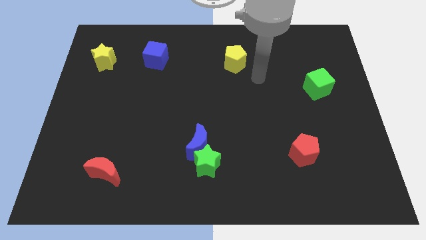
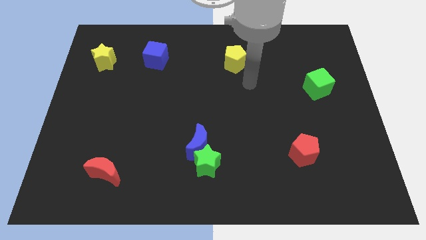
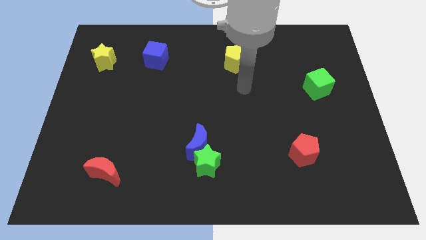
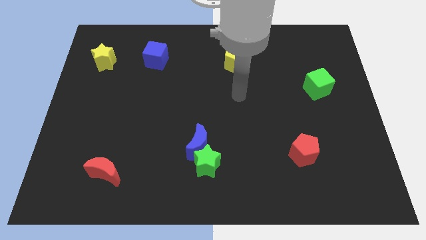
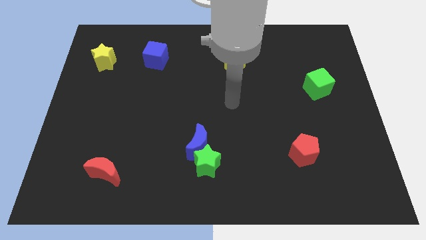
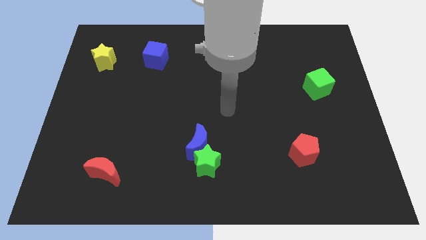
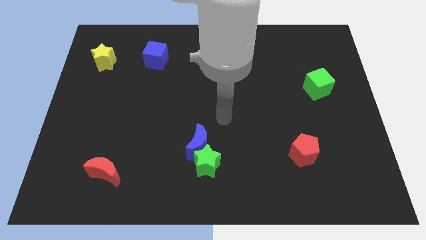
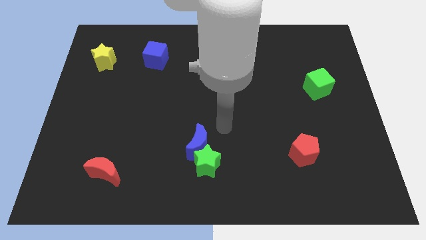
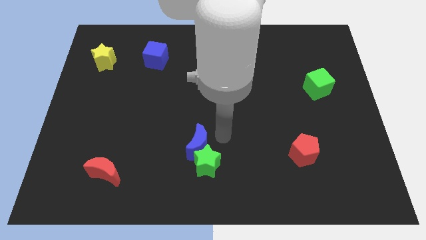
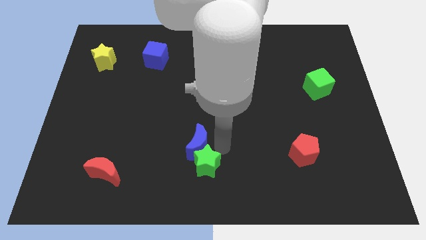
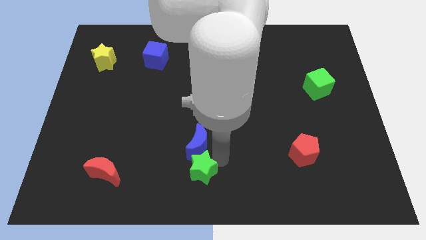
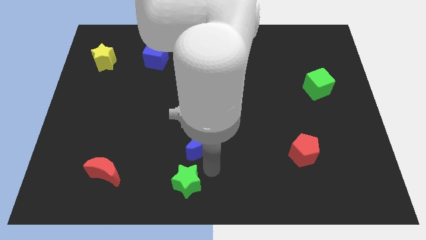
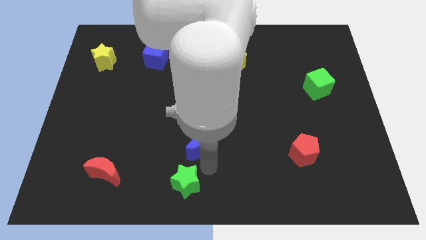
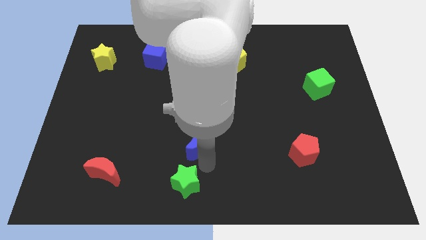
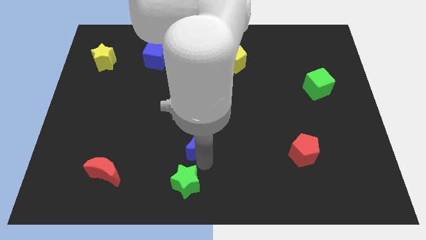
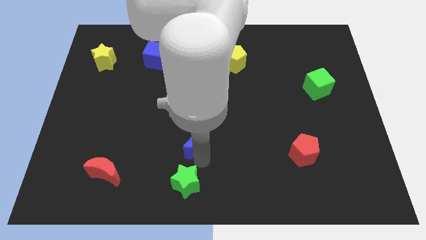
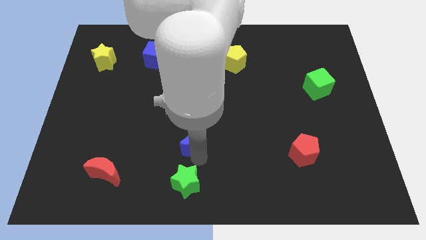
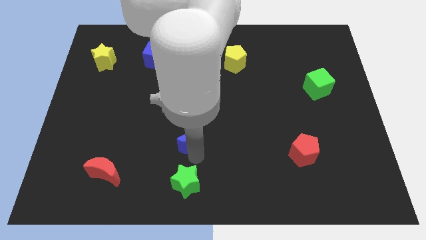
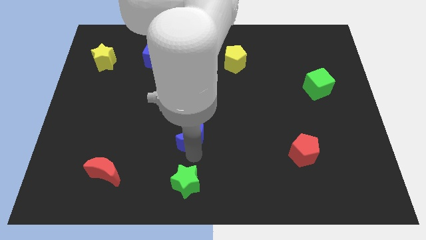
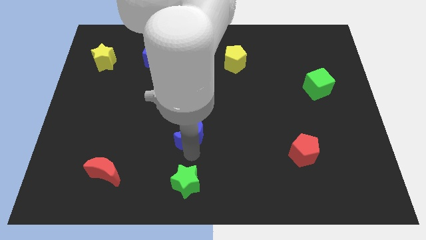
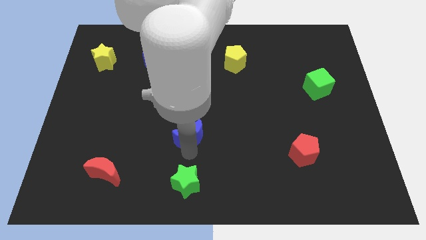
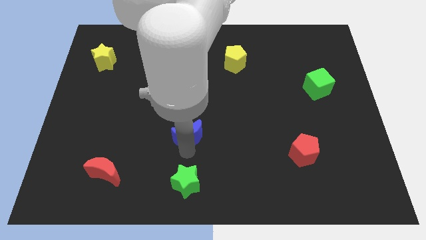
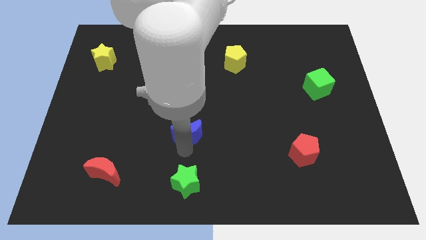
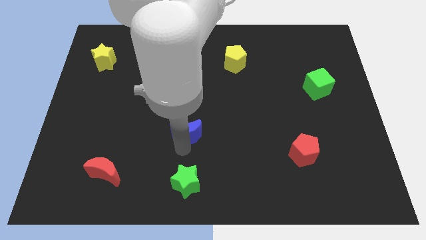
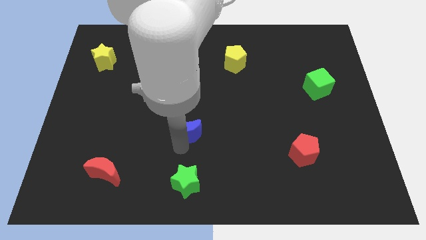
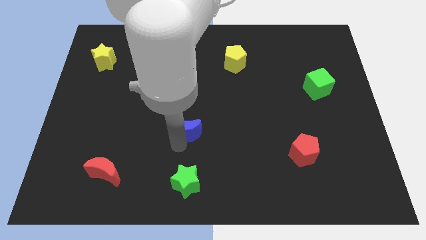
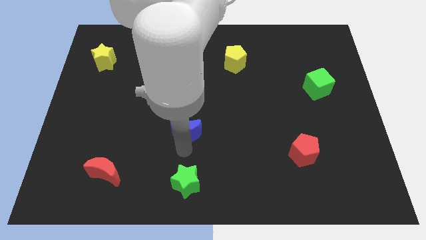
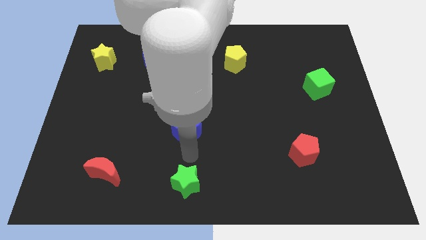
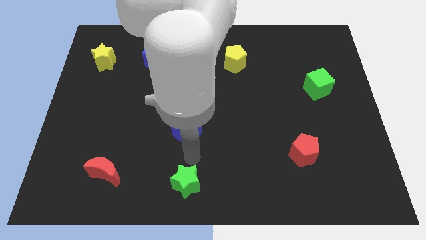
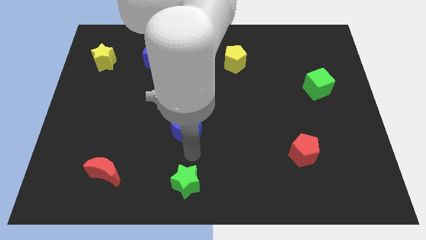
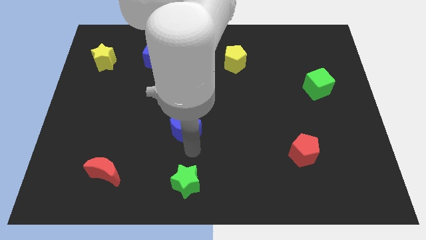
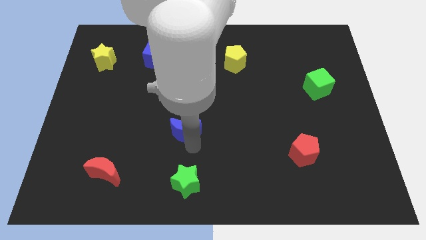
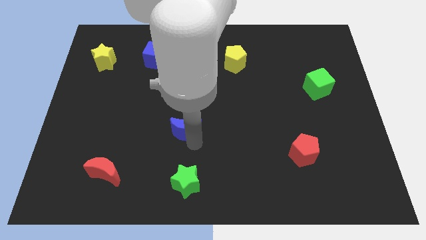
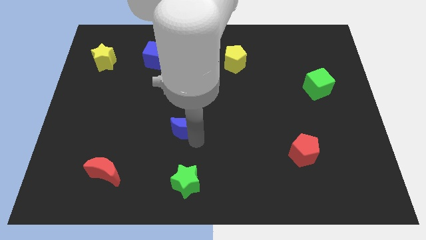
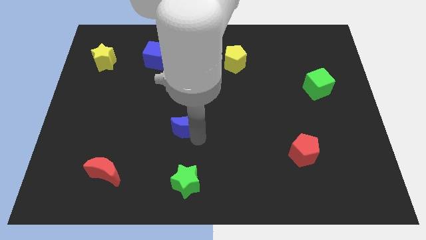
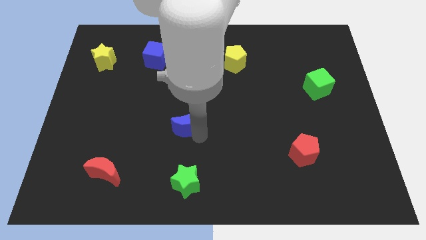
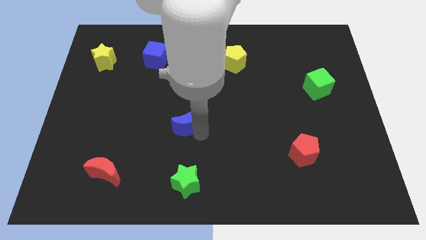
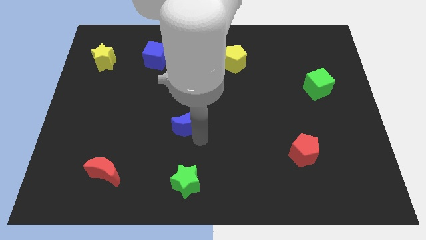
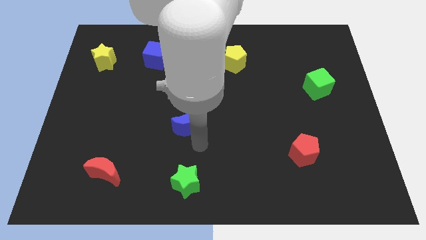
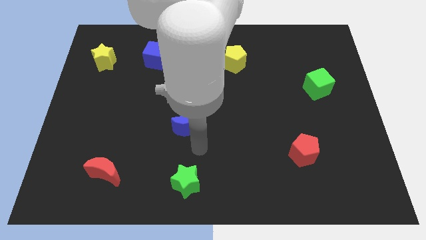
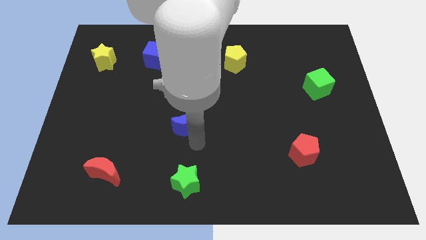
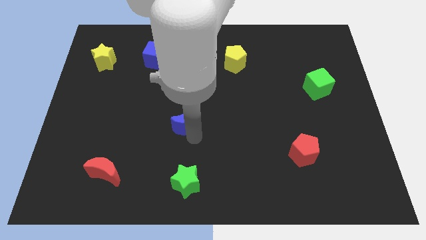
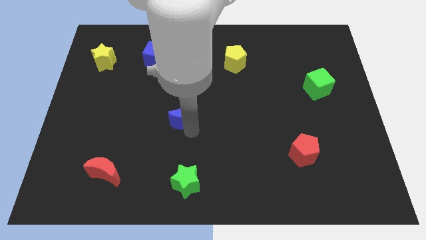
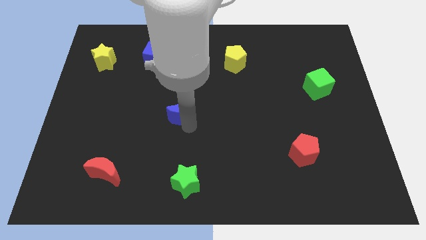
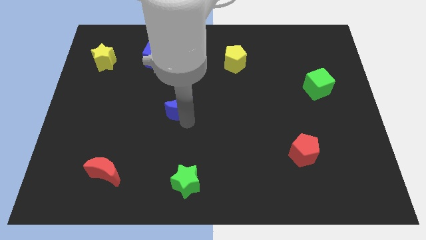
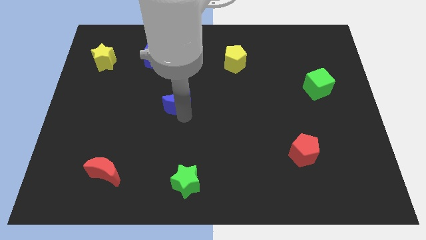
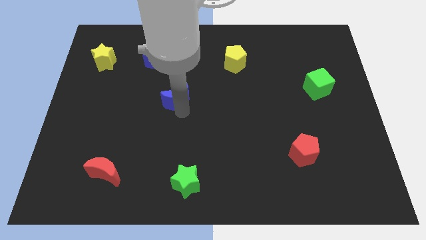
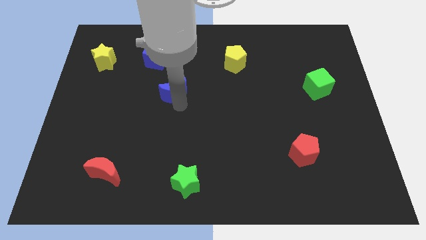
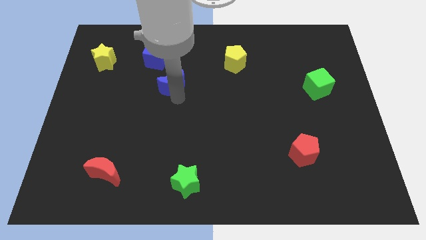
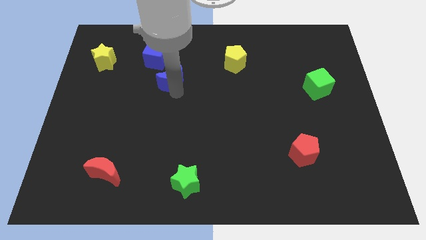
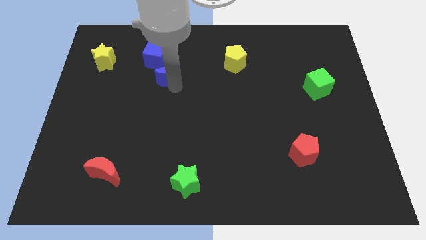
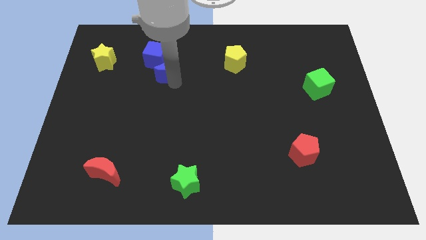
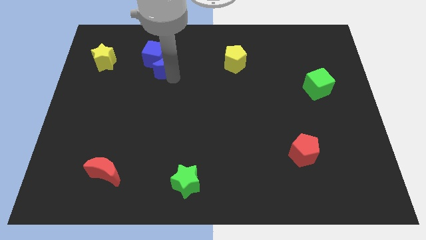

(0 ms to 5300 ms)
slide the blue moon to the blue cube

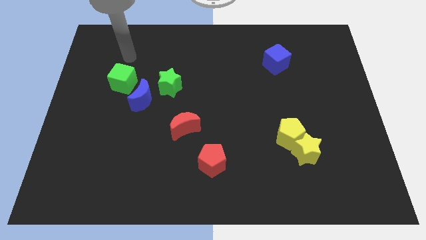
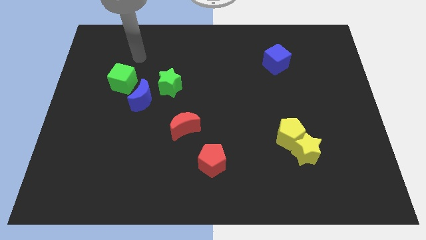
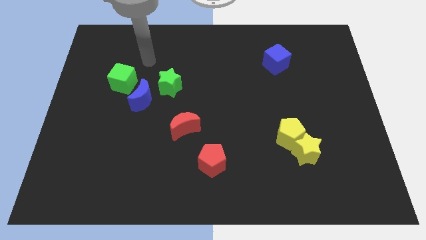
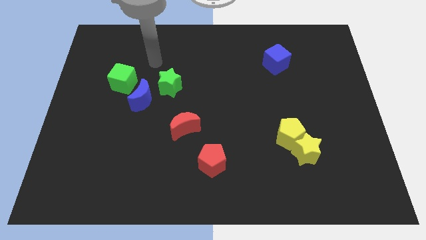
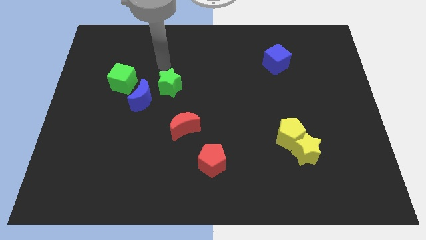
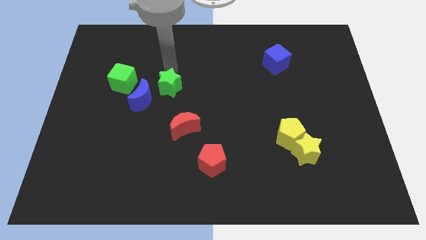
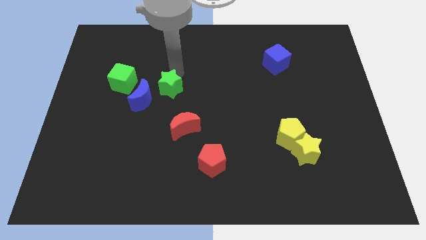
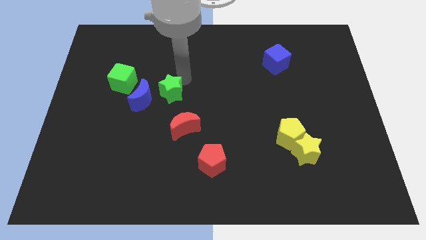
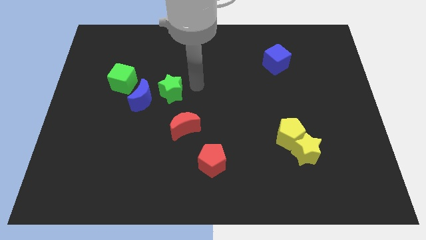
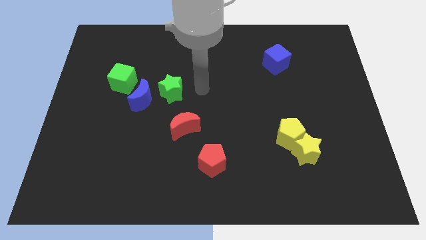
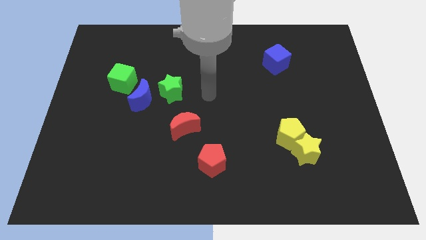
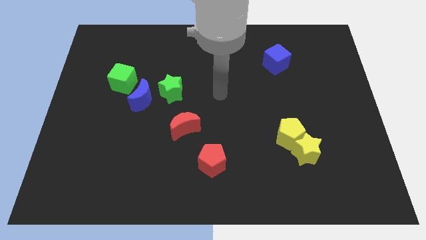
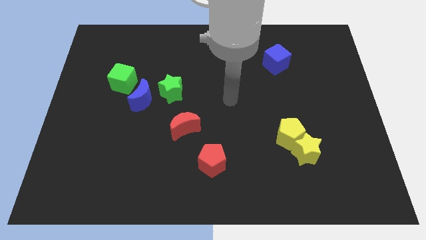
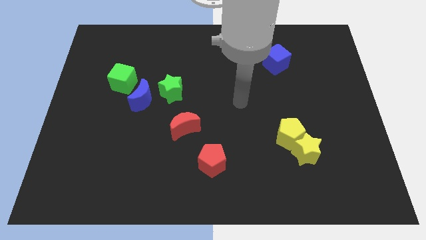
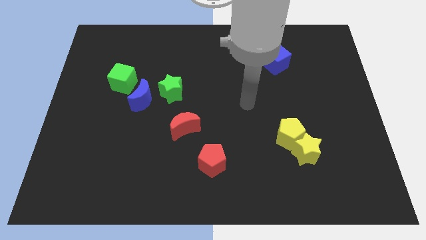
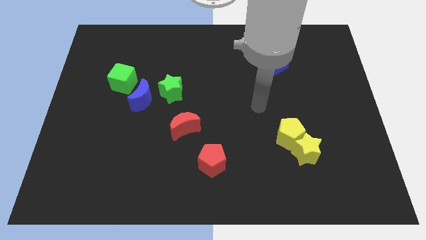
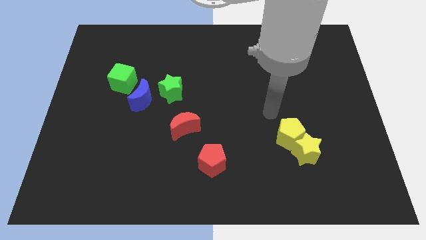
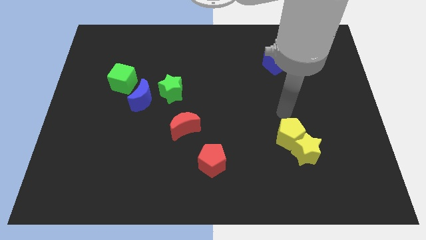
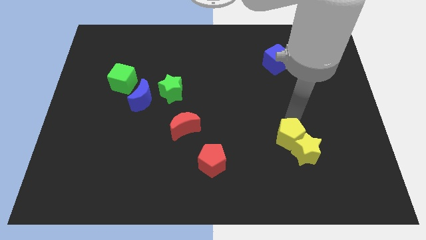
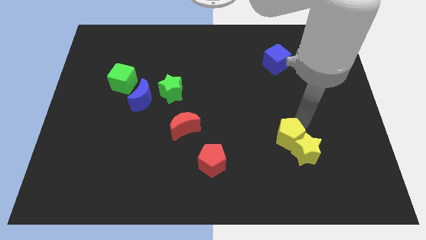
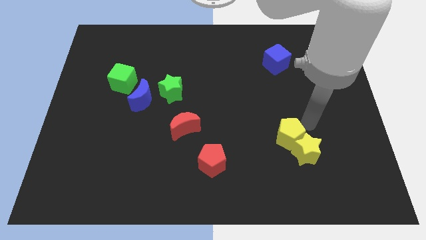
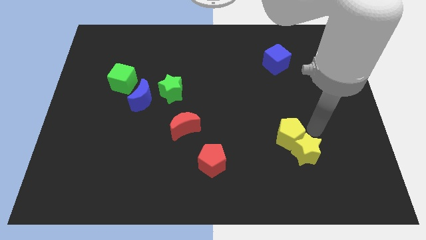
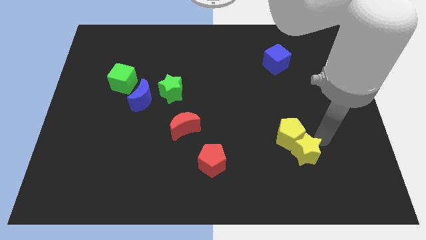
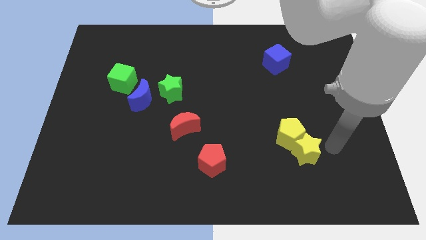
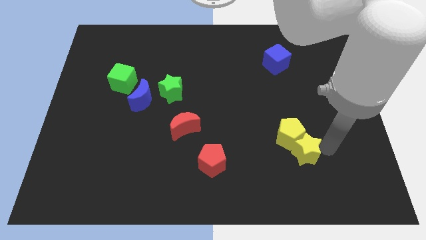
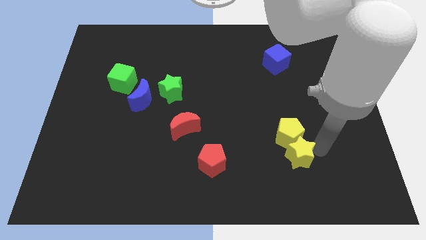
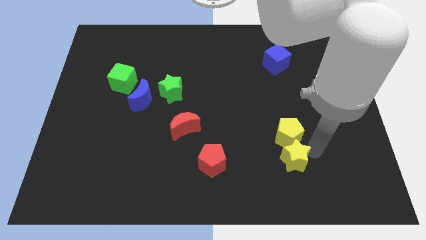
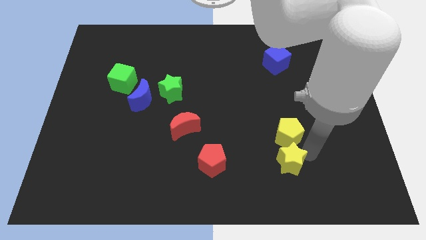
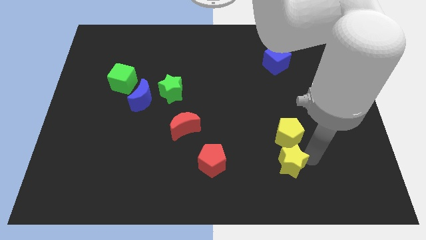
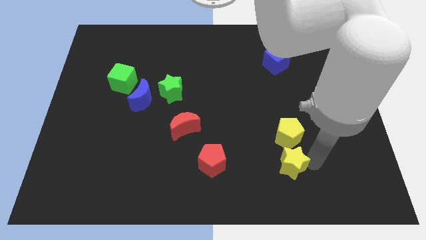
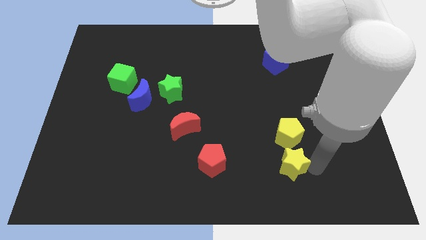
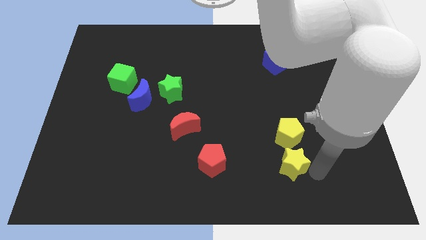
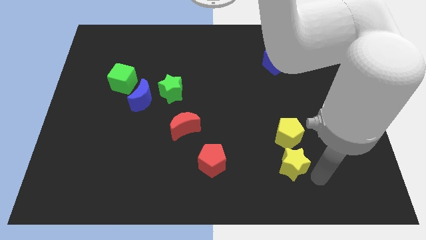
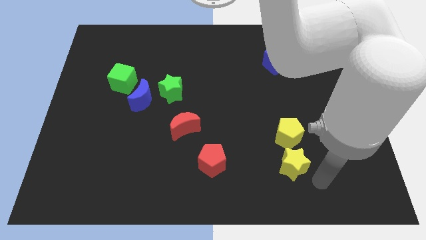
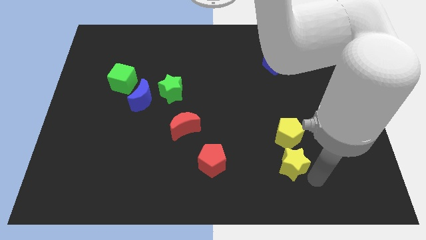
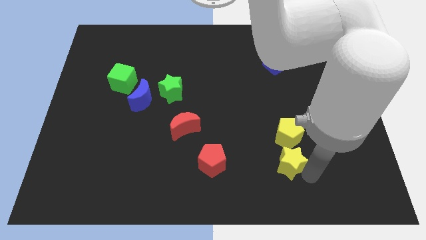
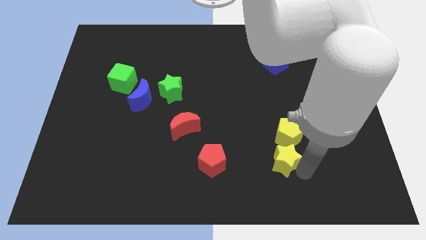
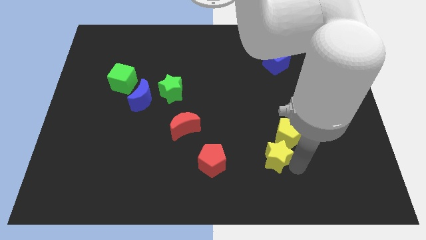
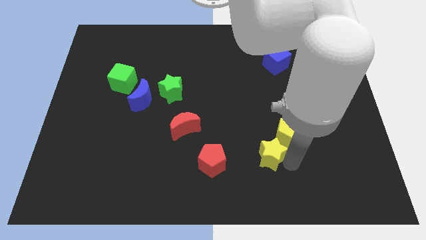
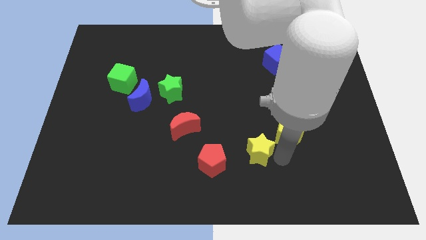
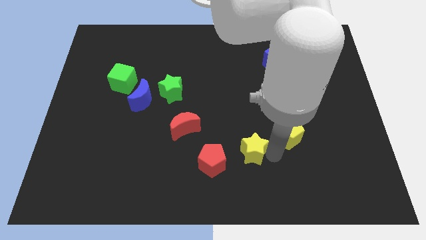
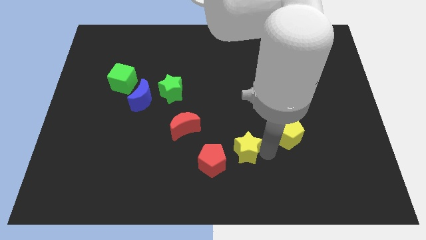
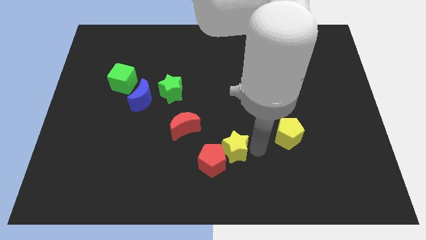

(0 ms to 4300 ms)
slide the yellow star towards the red pentagon
